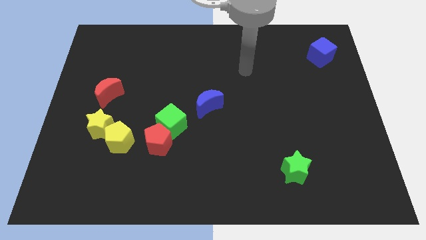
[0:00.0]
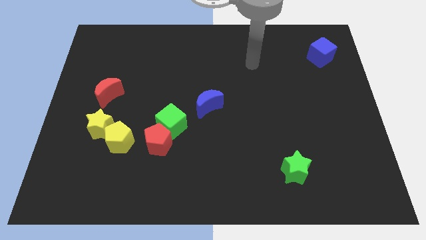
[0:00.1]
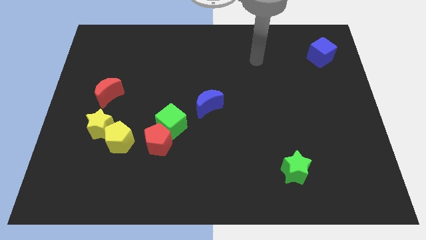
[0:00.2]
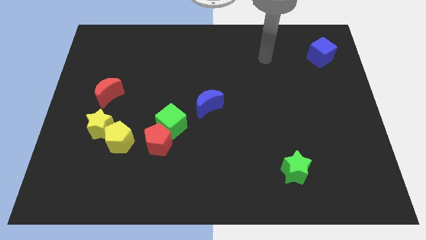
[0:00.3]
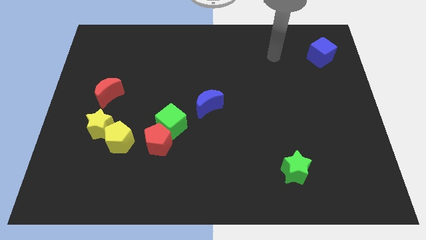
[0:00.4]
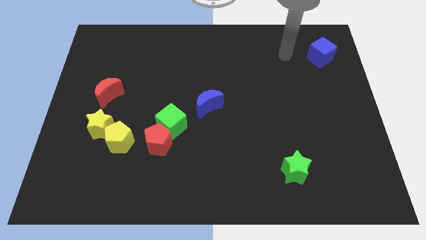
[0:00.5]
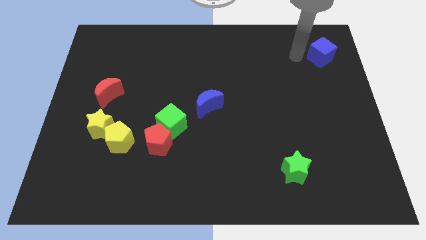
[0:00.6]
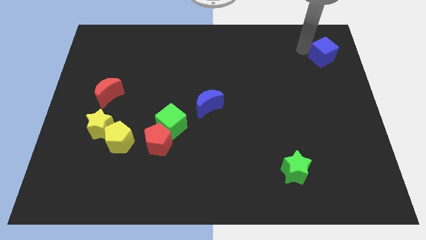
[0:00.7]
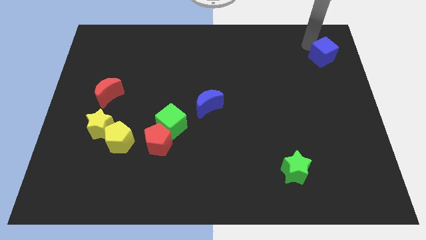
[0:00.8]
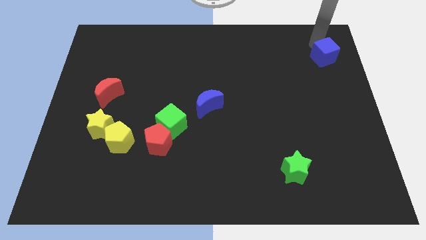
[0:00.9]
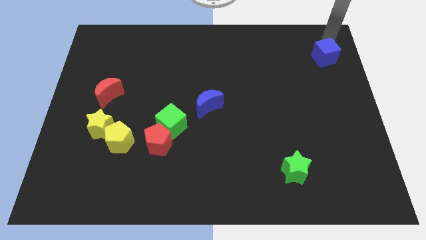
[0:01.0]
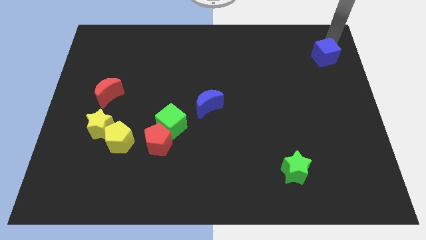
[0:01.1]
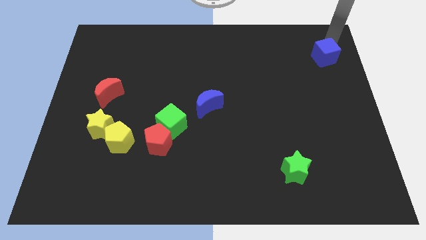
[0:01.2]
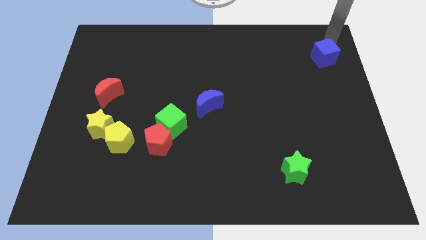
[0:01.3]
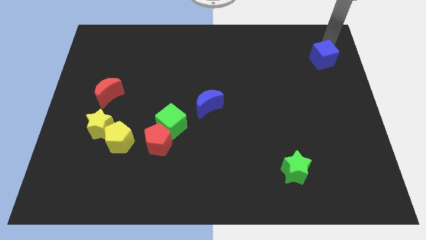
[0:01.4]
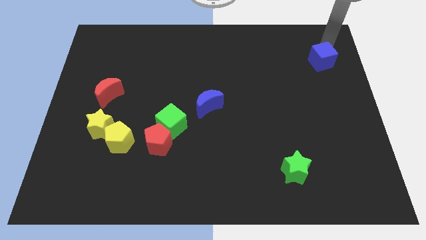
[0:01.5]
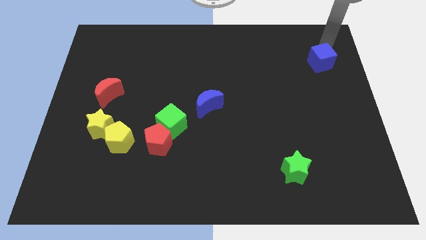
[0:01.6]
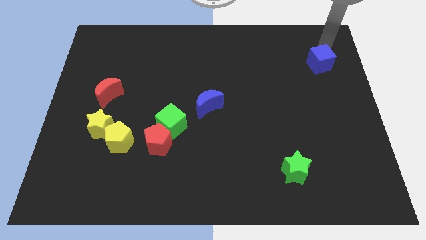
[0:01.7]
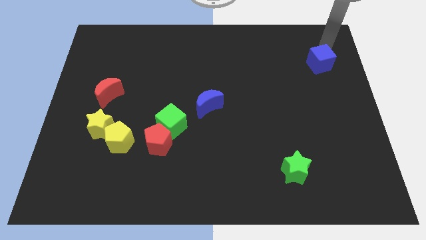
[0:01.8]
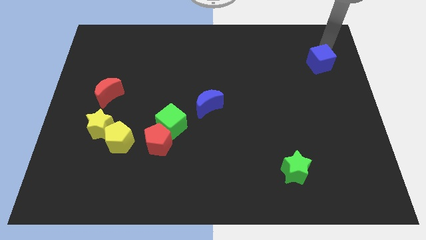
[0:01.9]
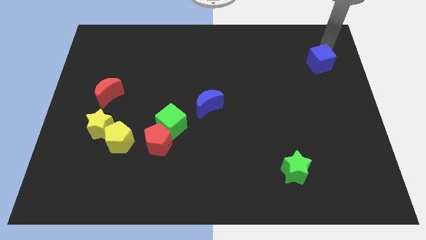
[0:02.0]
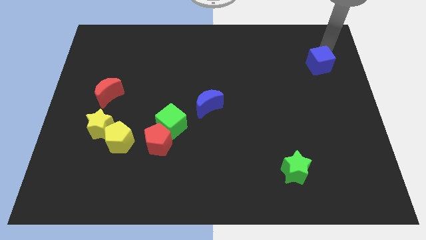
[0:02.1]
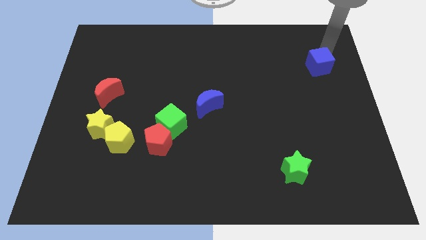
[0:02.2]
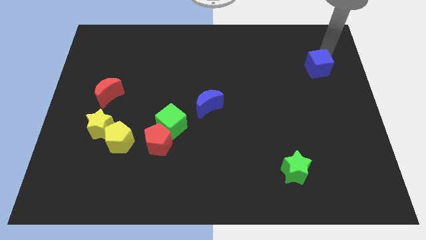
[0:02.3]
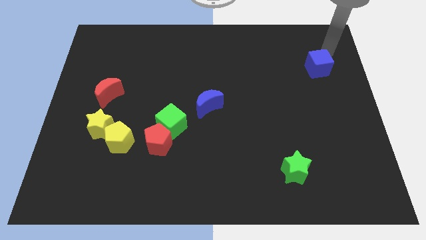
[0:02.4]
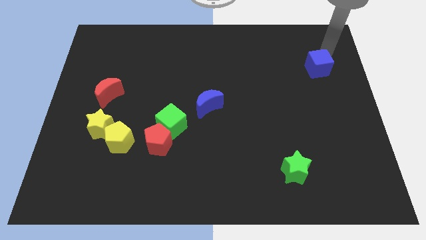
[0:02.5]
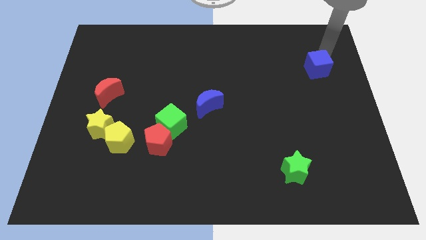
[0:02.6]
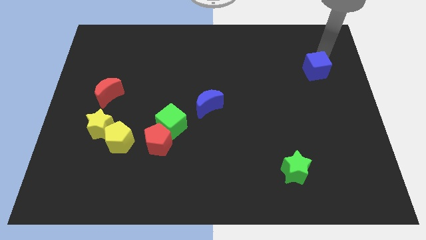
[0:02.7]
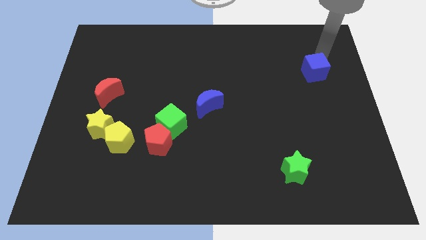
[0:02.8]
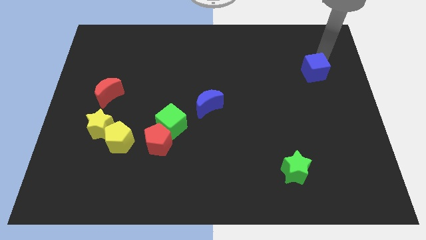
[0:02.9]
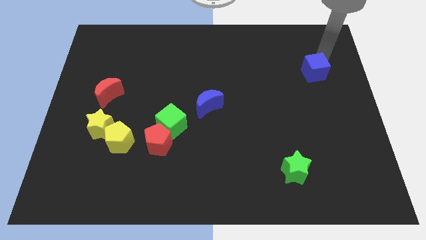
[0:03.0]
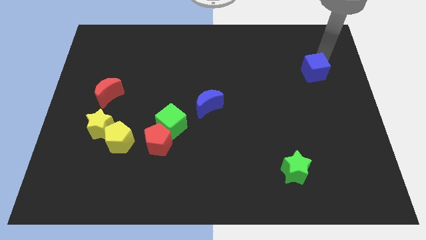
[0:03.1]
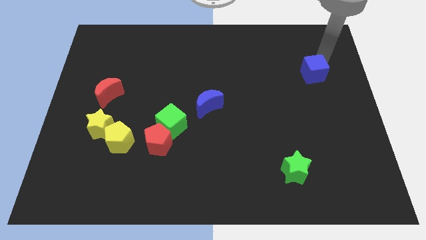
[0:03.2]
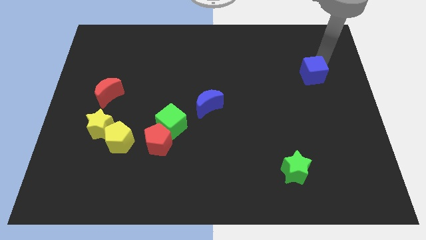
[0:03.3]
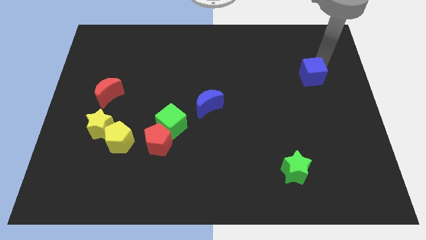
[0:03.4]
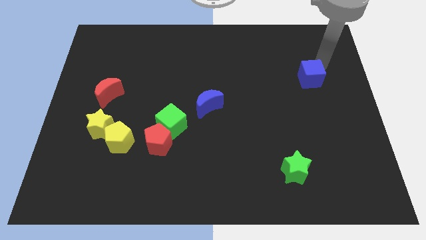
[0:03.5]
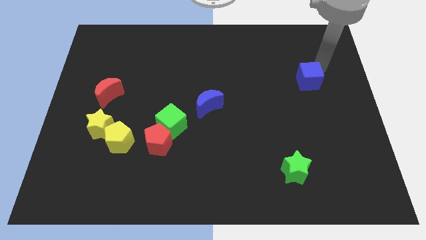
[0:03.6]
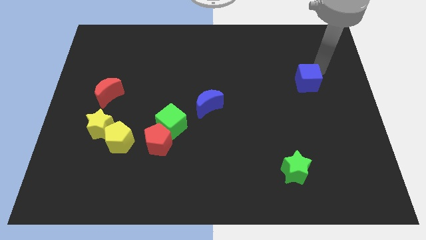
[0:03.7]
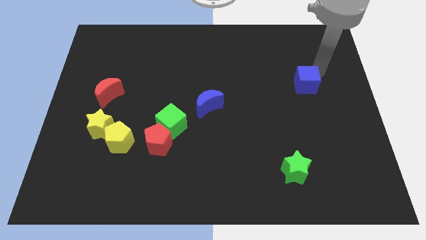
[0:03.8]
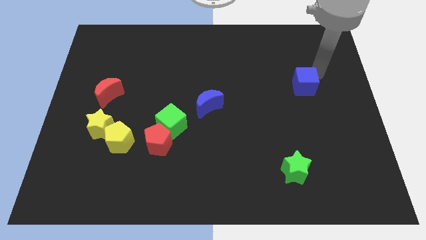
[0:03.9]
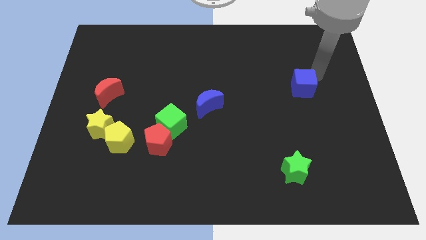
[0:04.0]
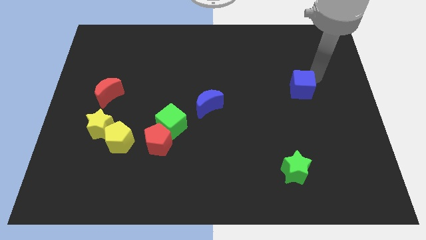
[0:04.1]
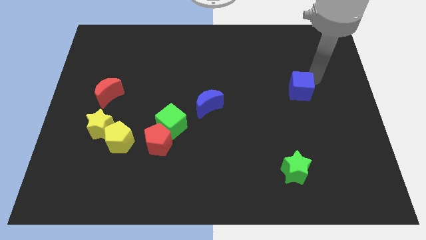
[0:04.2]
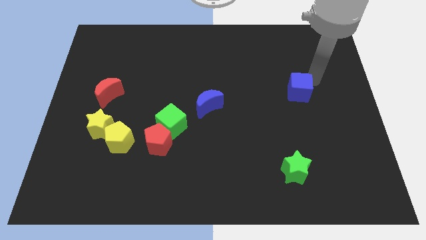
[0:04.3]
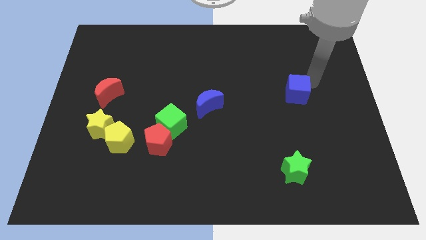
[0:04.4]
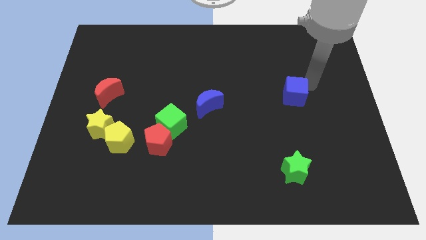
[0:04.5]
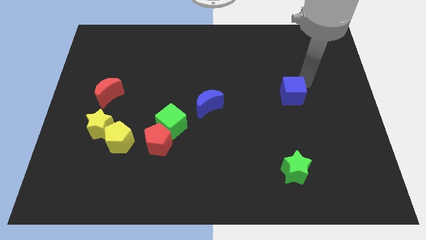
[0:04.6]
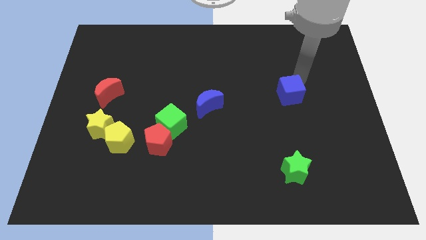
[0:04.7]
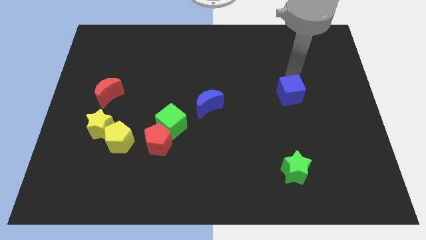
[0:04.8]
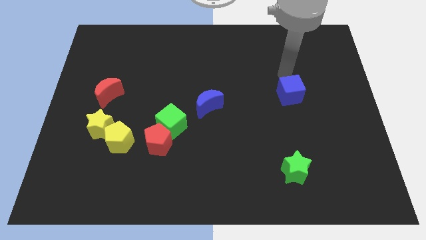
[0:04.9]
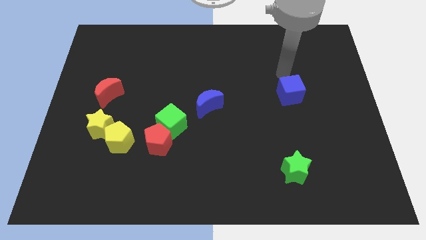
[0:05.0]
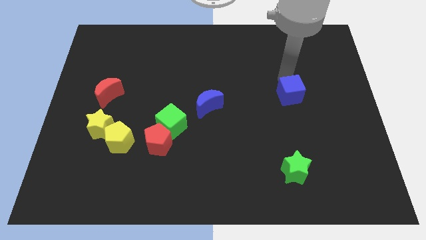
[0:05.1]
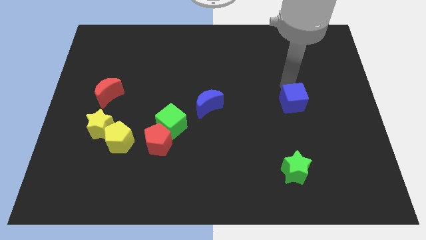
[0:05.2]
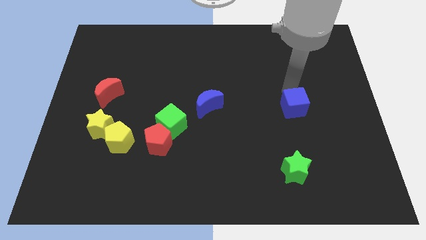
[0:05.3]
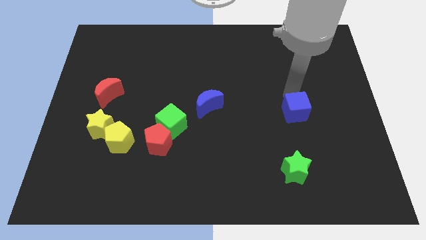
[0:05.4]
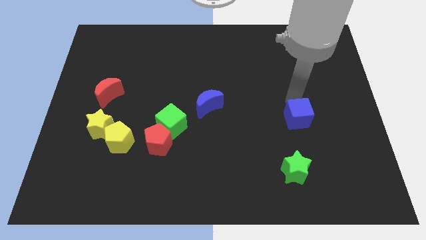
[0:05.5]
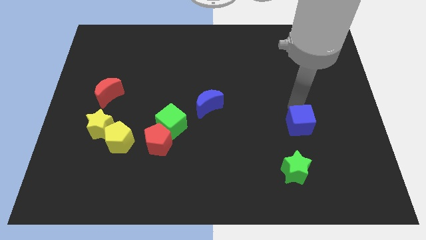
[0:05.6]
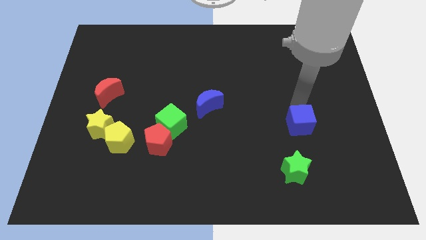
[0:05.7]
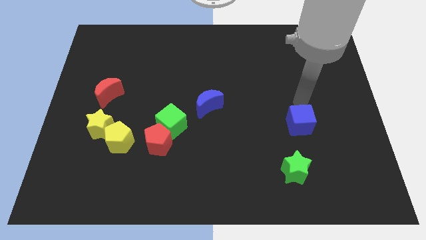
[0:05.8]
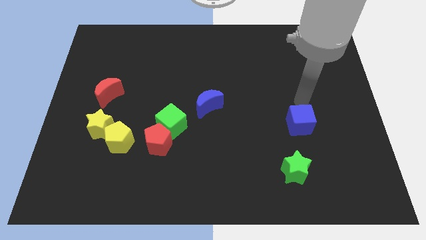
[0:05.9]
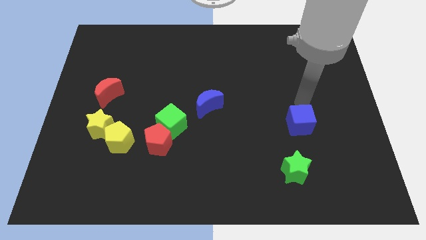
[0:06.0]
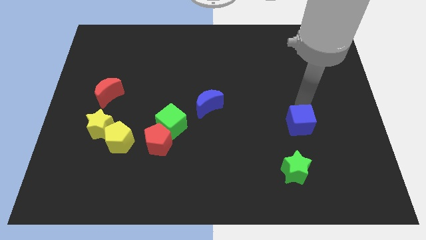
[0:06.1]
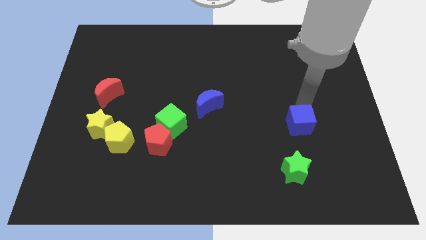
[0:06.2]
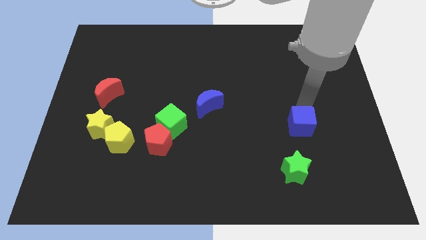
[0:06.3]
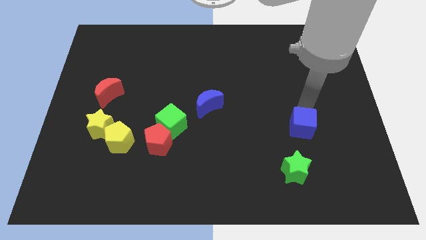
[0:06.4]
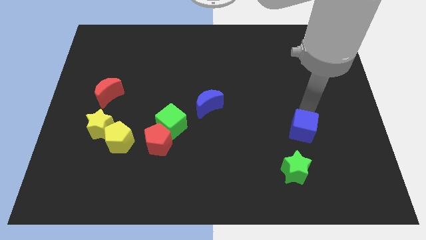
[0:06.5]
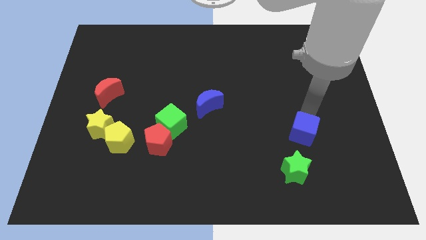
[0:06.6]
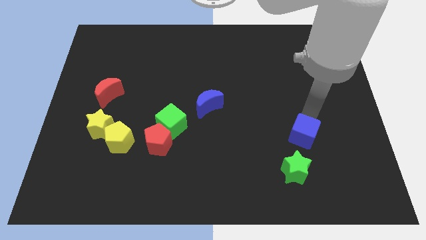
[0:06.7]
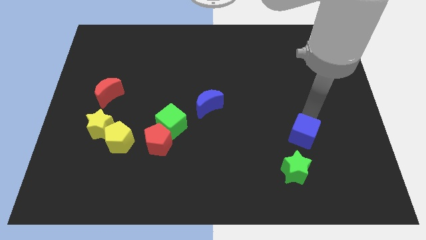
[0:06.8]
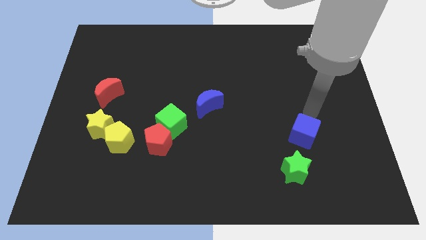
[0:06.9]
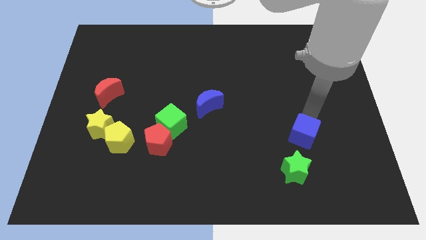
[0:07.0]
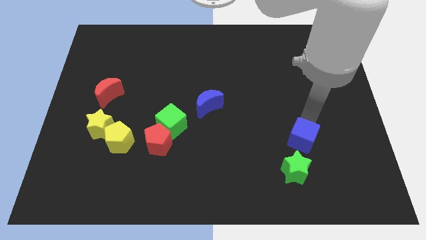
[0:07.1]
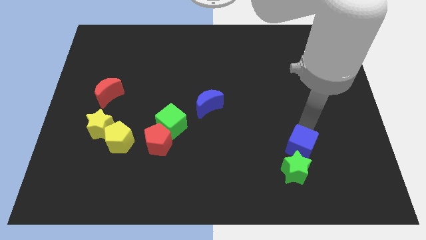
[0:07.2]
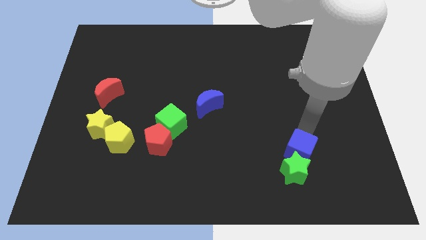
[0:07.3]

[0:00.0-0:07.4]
slide the blue cube towards the green star
